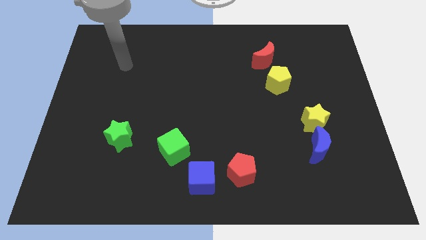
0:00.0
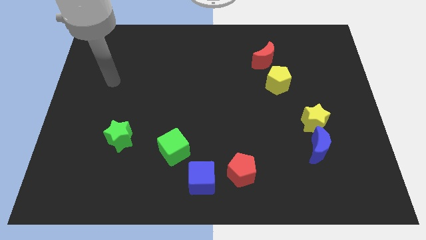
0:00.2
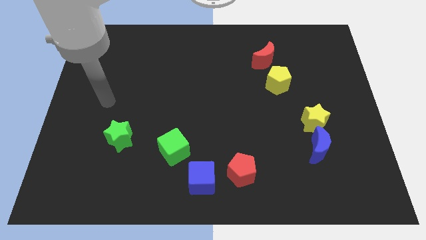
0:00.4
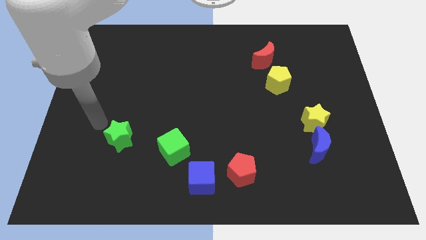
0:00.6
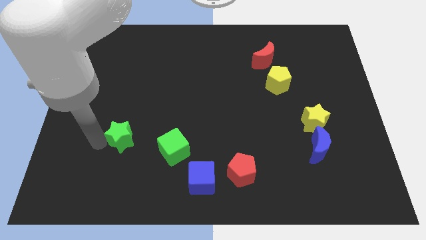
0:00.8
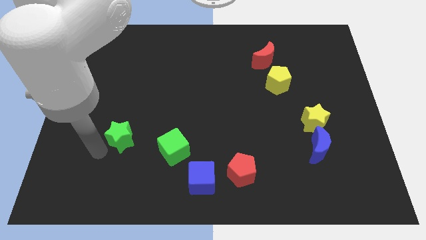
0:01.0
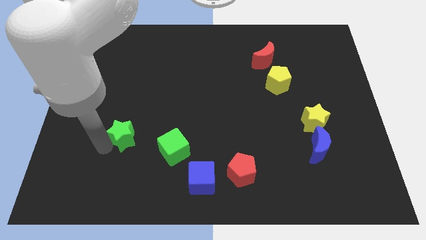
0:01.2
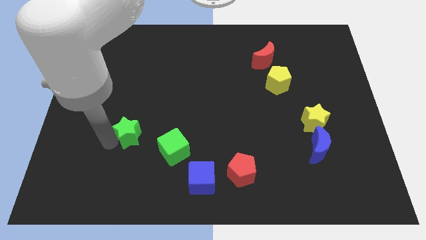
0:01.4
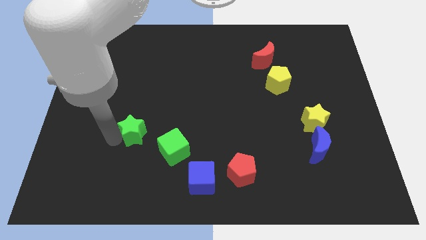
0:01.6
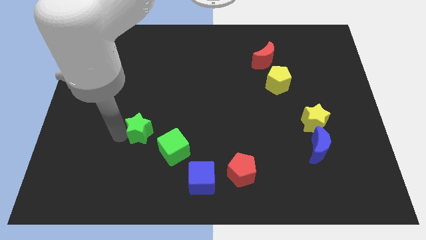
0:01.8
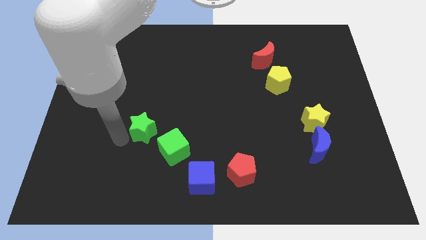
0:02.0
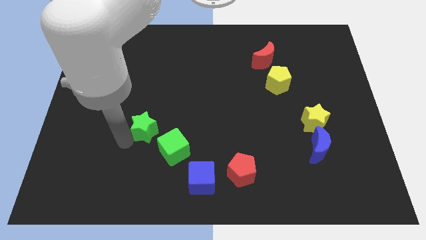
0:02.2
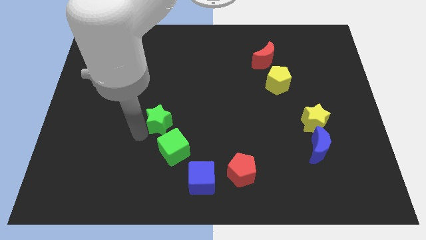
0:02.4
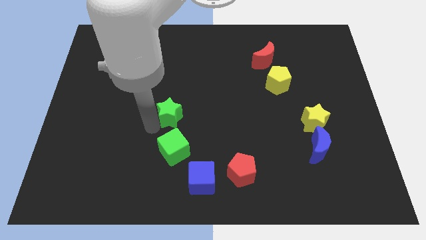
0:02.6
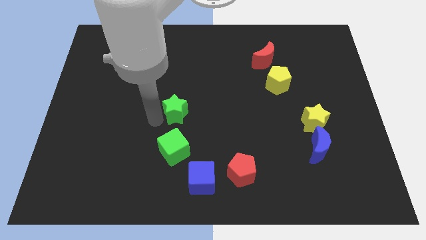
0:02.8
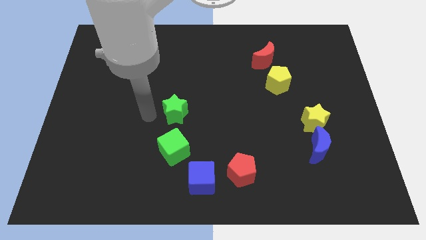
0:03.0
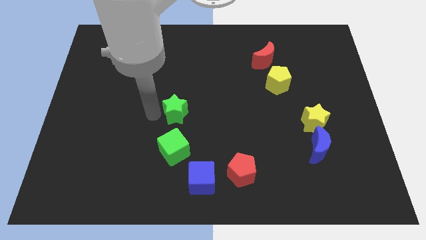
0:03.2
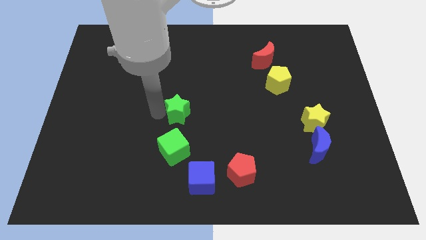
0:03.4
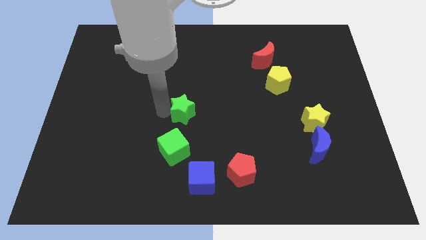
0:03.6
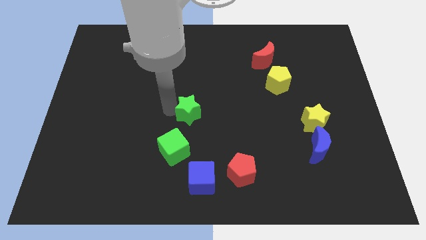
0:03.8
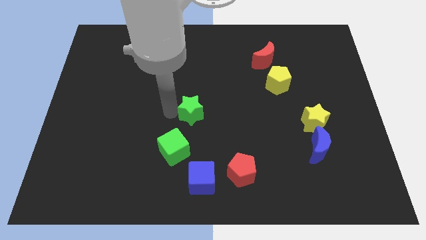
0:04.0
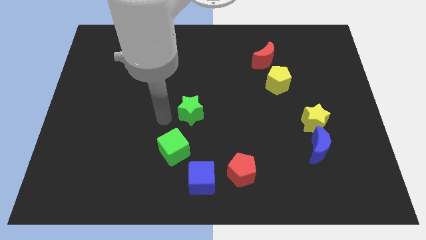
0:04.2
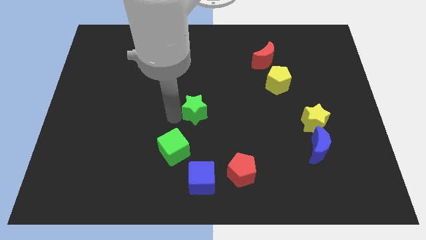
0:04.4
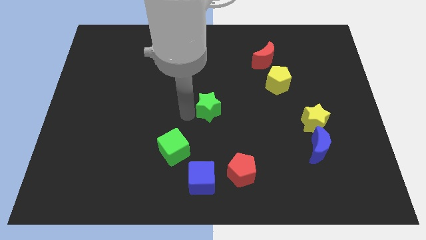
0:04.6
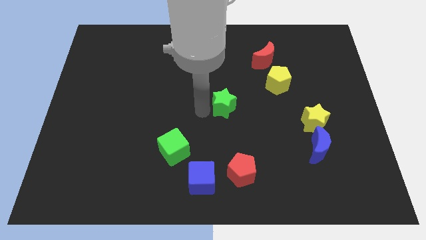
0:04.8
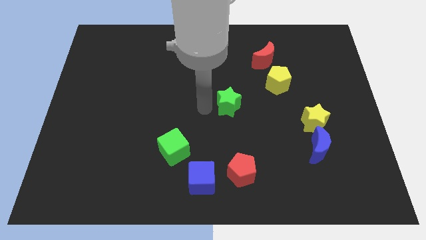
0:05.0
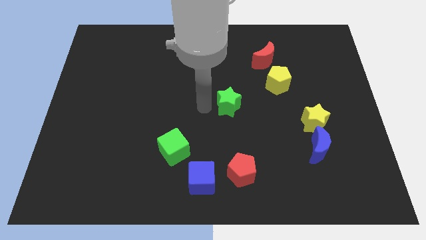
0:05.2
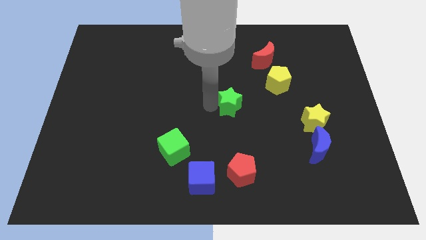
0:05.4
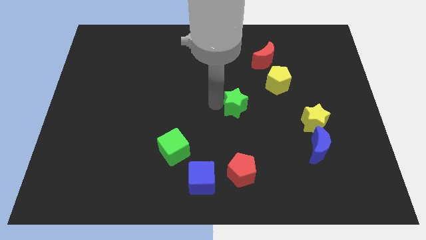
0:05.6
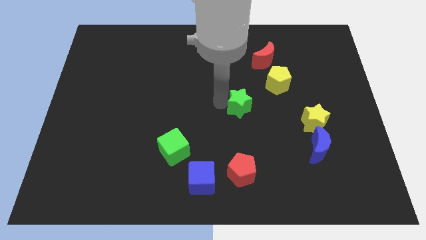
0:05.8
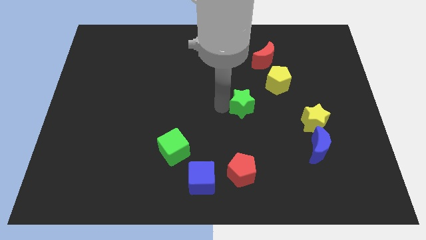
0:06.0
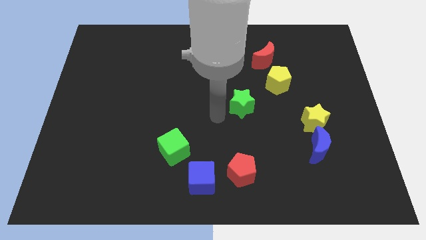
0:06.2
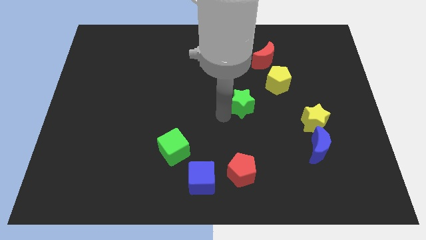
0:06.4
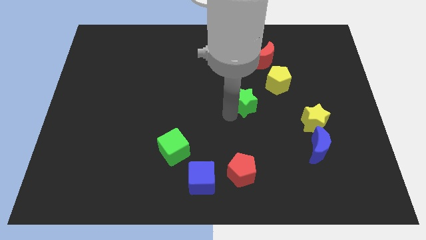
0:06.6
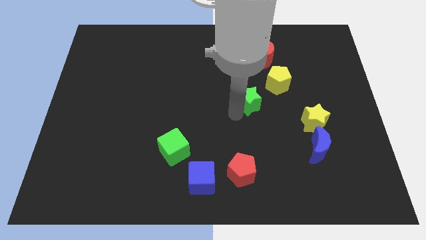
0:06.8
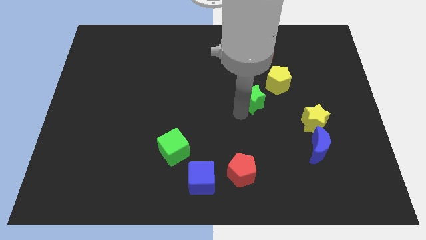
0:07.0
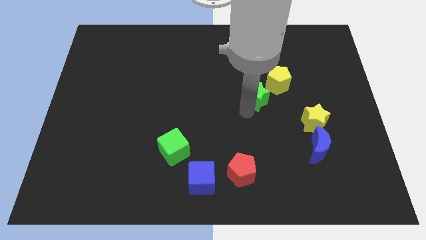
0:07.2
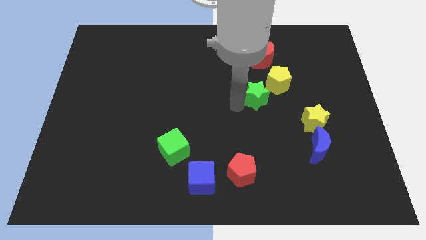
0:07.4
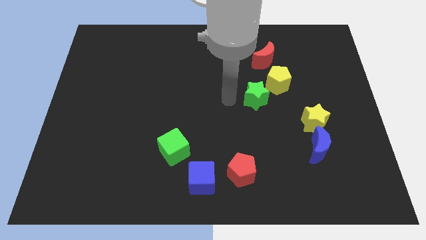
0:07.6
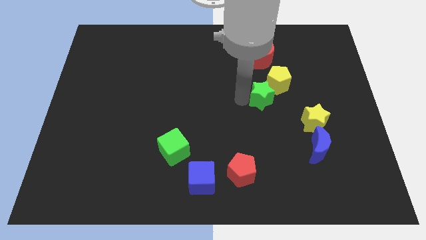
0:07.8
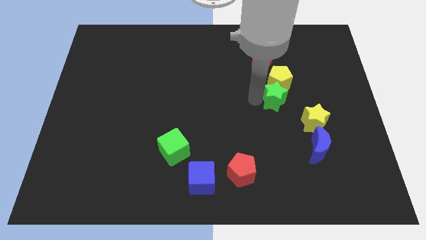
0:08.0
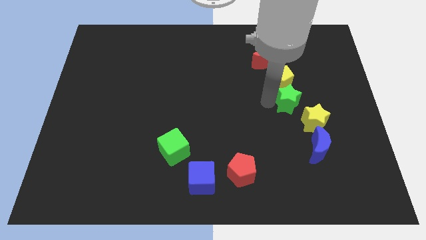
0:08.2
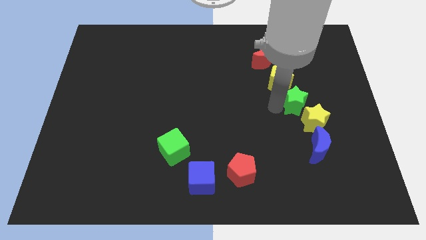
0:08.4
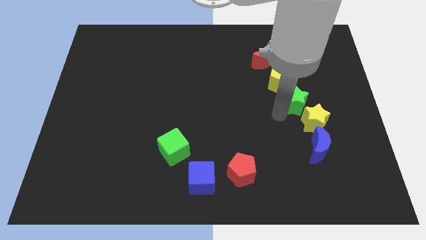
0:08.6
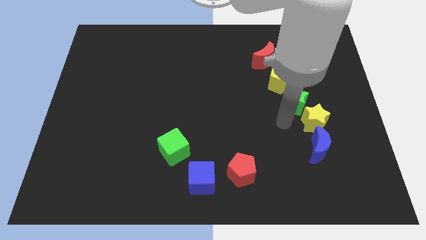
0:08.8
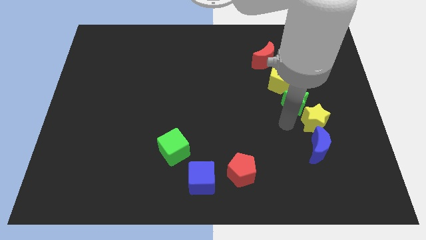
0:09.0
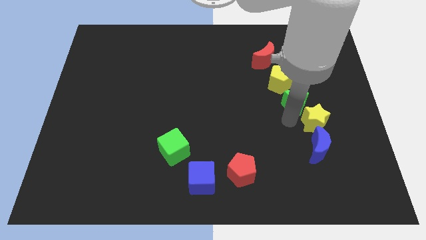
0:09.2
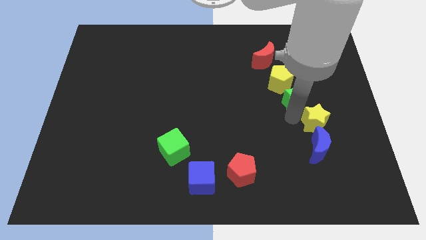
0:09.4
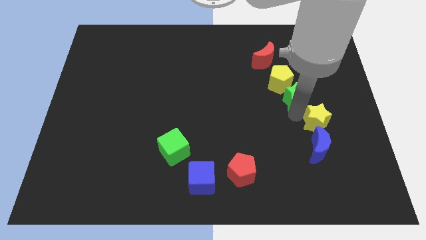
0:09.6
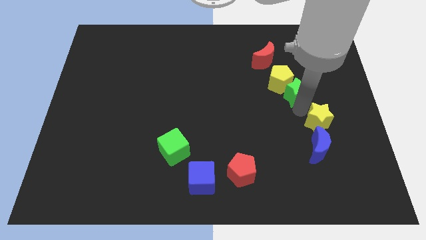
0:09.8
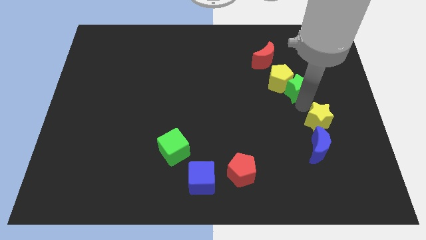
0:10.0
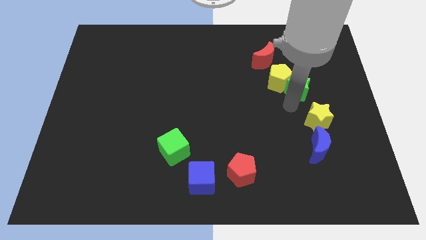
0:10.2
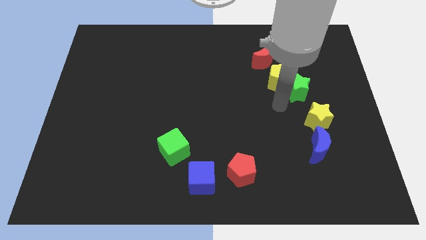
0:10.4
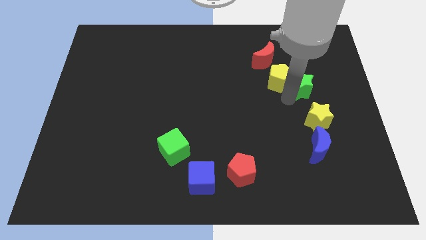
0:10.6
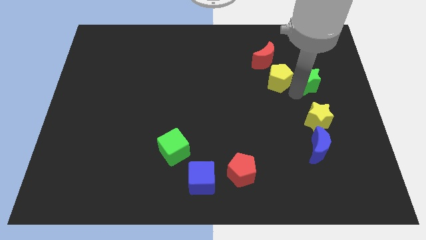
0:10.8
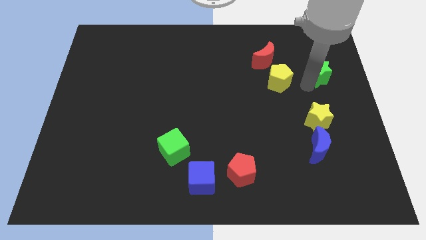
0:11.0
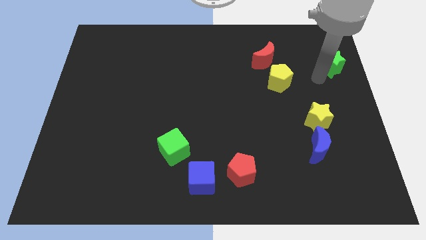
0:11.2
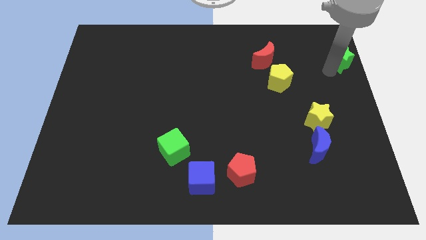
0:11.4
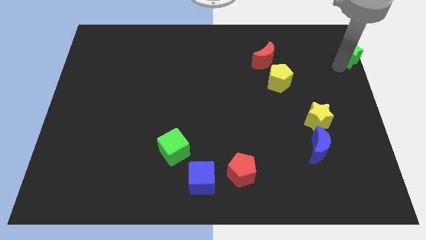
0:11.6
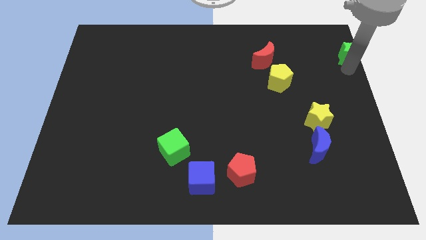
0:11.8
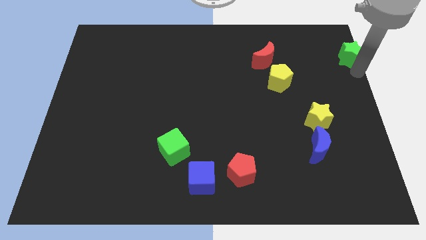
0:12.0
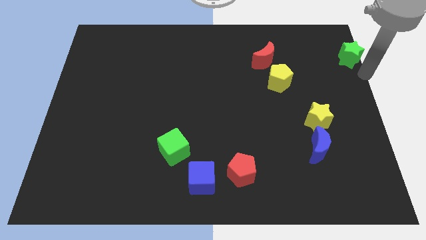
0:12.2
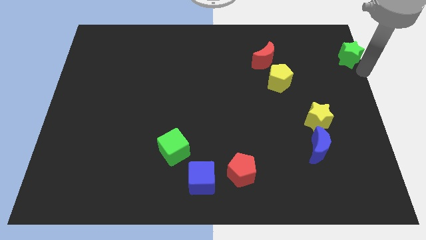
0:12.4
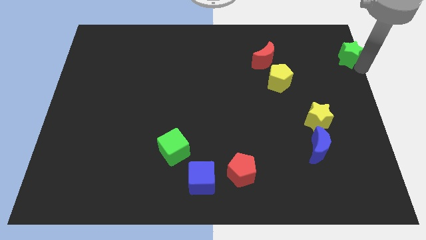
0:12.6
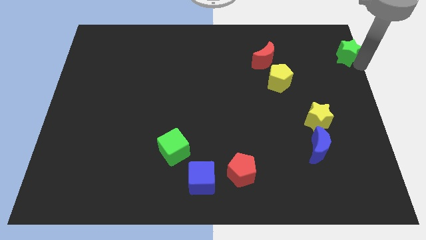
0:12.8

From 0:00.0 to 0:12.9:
move the green star to the top right corner
